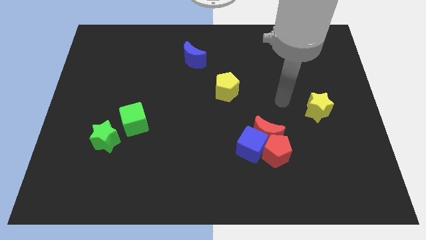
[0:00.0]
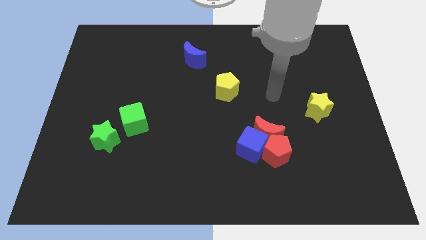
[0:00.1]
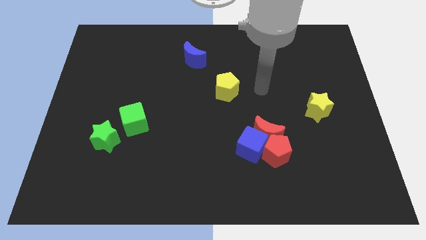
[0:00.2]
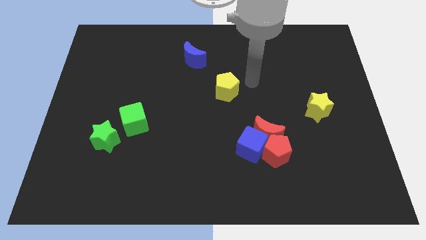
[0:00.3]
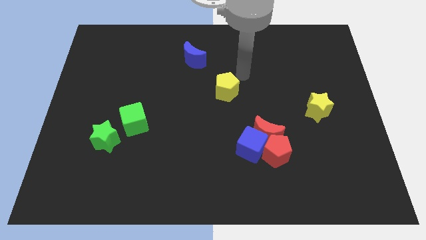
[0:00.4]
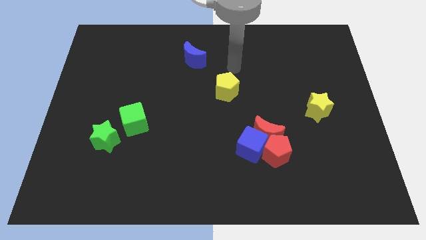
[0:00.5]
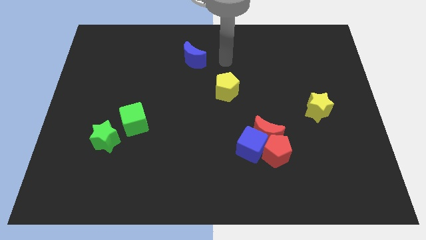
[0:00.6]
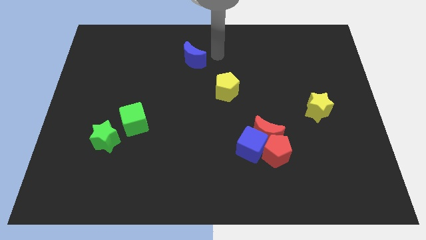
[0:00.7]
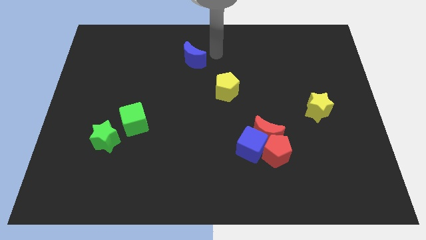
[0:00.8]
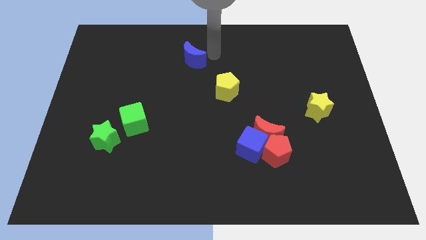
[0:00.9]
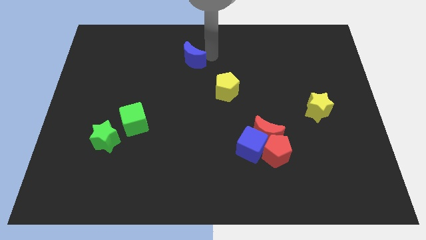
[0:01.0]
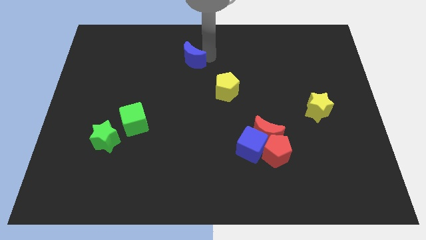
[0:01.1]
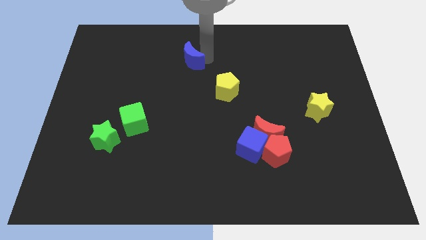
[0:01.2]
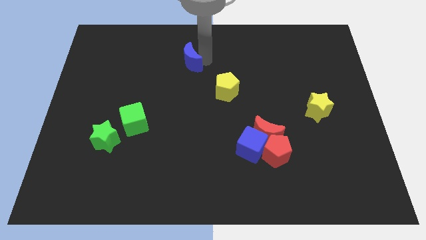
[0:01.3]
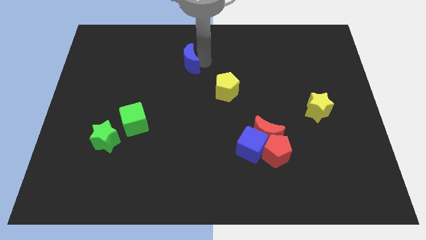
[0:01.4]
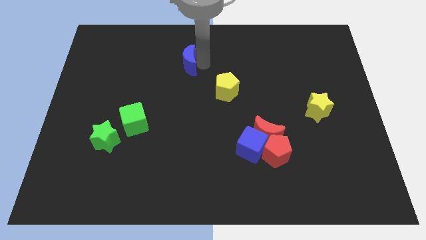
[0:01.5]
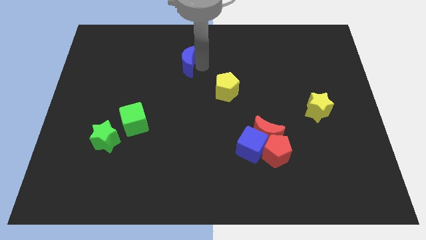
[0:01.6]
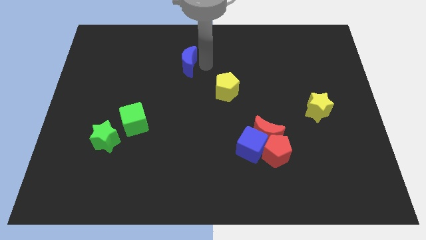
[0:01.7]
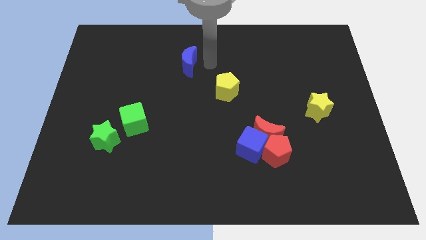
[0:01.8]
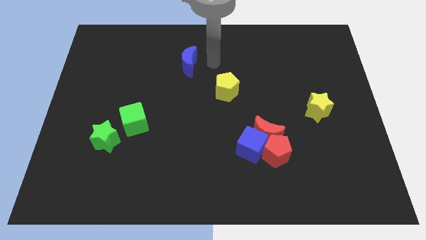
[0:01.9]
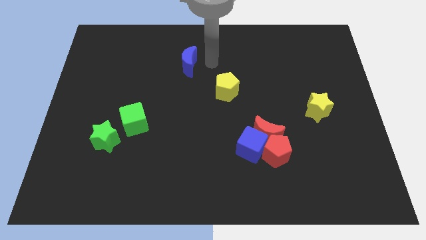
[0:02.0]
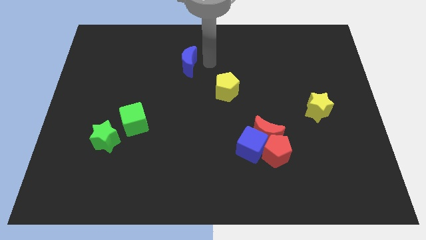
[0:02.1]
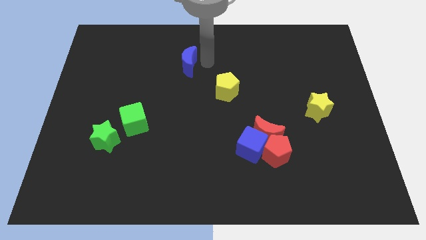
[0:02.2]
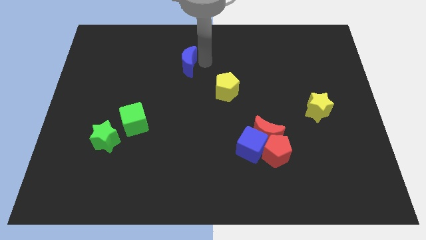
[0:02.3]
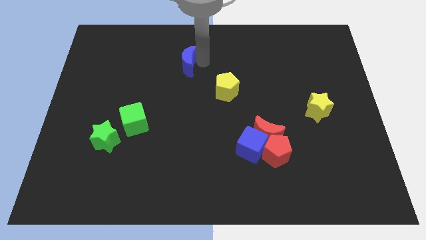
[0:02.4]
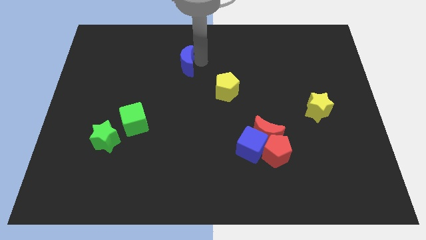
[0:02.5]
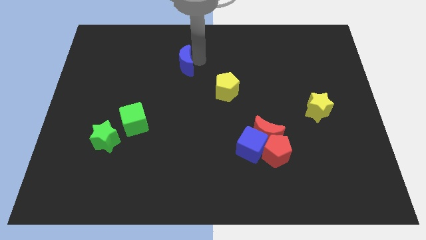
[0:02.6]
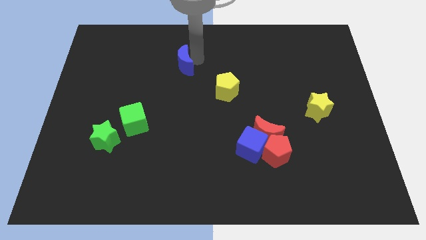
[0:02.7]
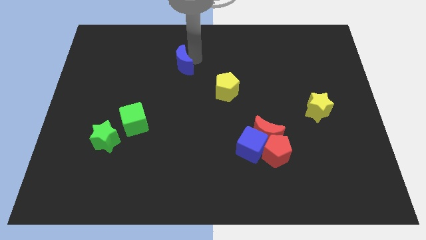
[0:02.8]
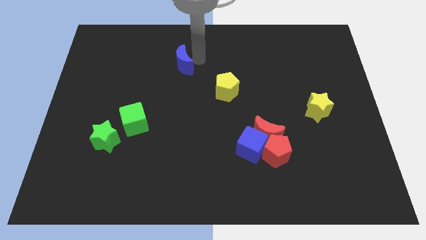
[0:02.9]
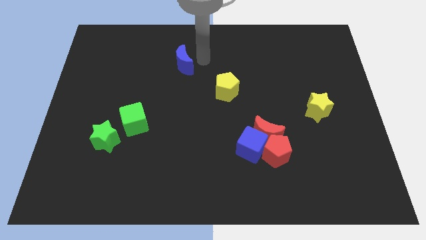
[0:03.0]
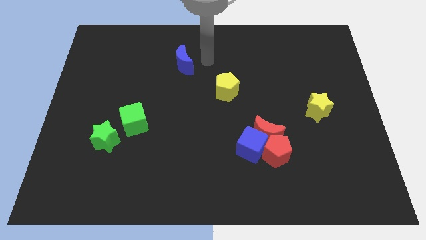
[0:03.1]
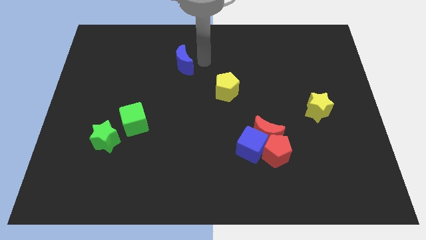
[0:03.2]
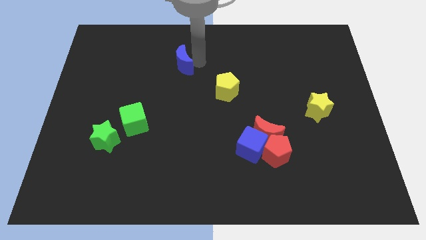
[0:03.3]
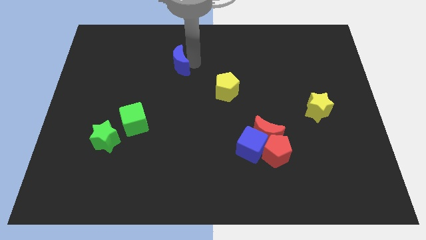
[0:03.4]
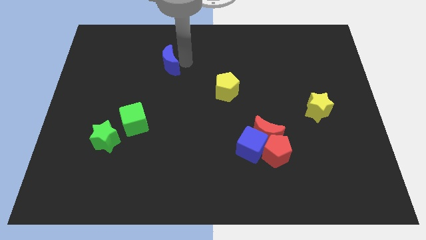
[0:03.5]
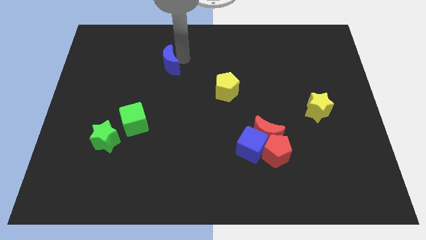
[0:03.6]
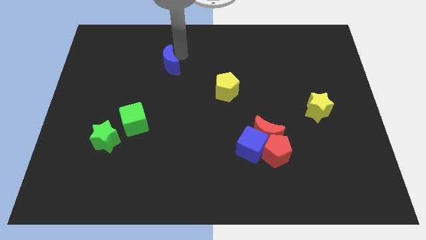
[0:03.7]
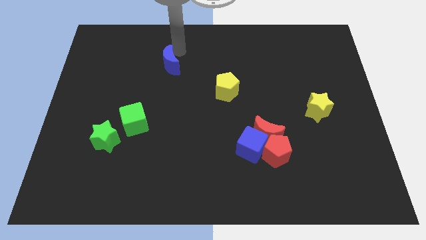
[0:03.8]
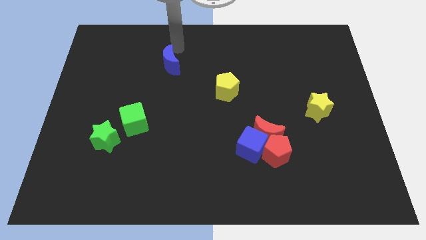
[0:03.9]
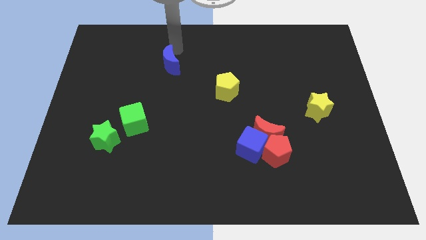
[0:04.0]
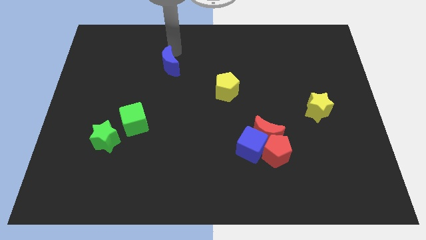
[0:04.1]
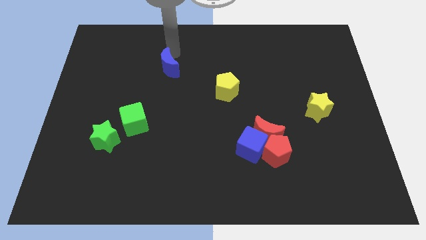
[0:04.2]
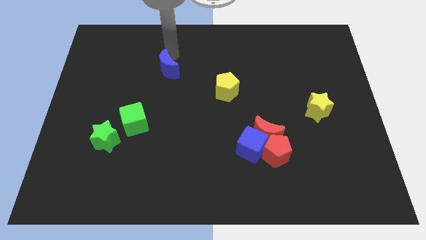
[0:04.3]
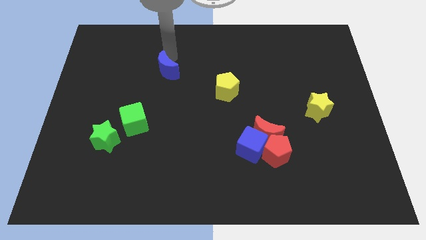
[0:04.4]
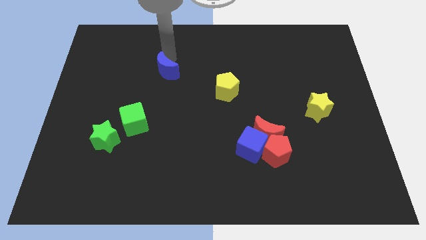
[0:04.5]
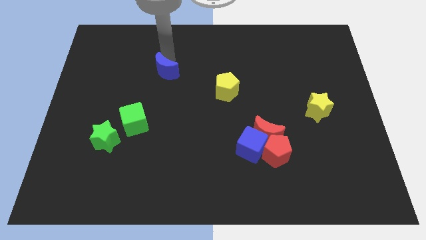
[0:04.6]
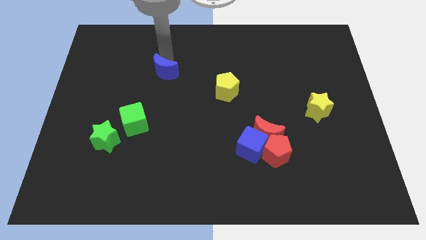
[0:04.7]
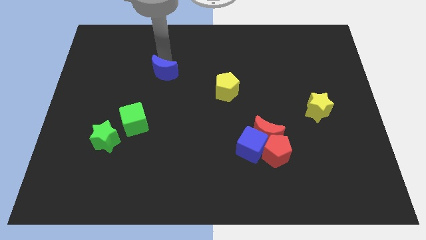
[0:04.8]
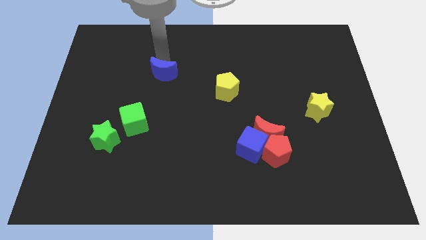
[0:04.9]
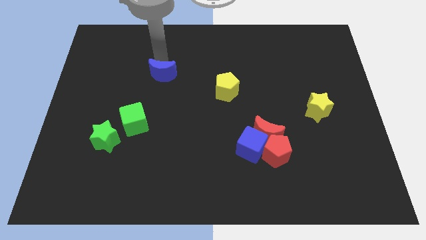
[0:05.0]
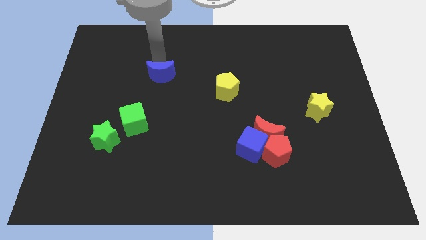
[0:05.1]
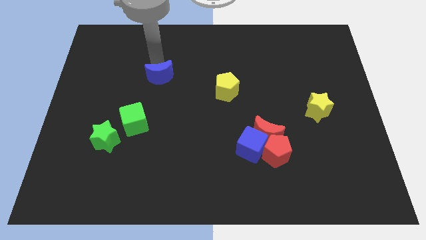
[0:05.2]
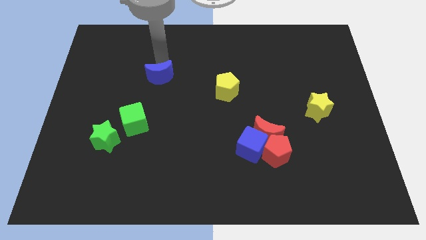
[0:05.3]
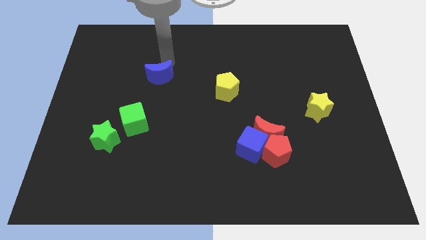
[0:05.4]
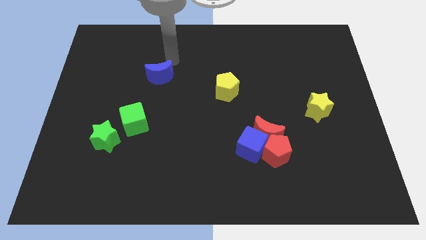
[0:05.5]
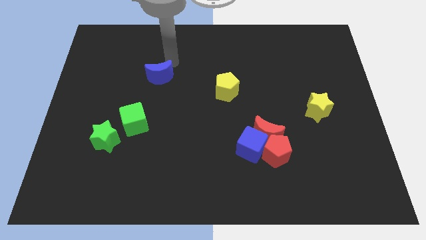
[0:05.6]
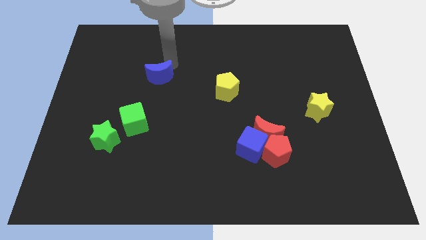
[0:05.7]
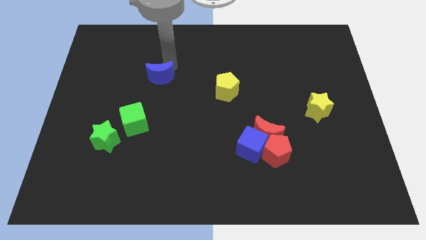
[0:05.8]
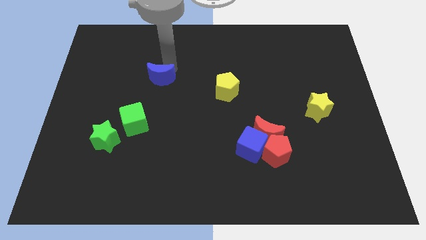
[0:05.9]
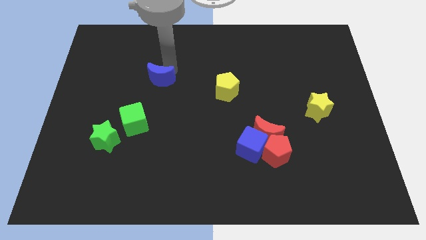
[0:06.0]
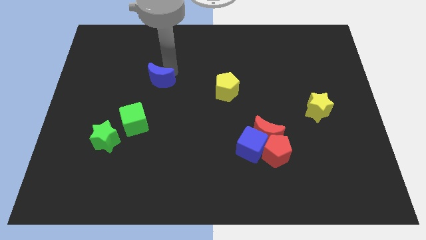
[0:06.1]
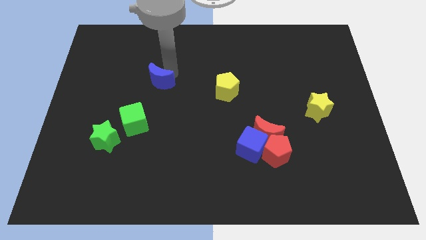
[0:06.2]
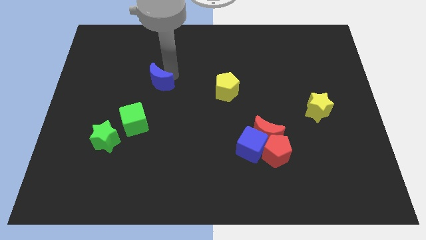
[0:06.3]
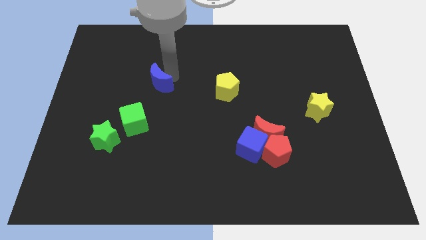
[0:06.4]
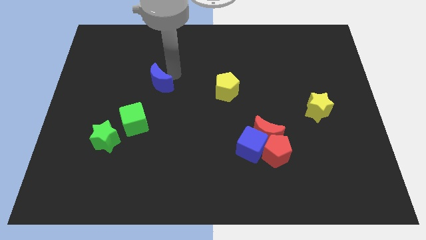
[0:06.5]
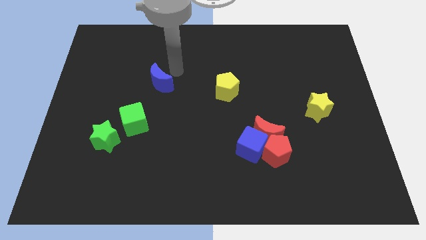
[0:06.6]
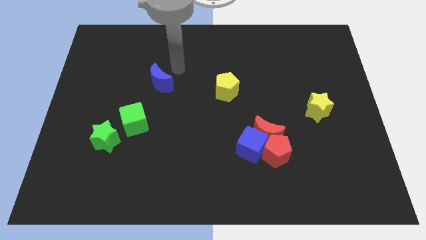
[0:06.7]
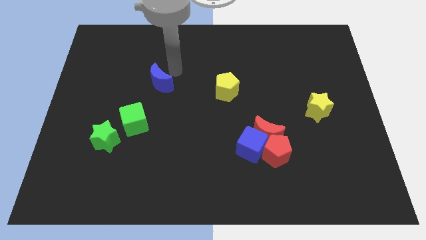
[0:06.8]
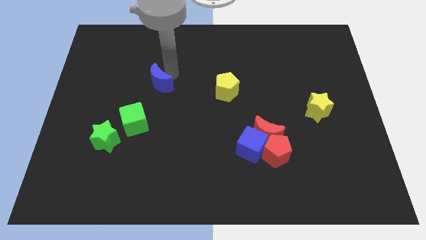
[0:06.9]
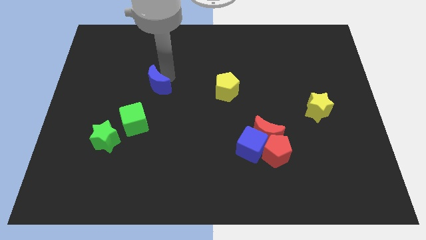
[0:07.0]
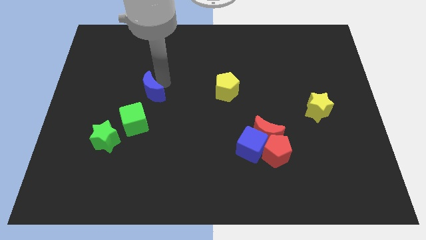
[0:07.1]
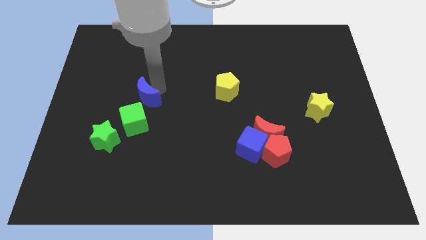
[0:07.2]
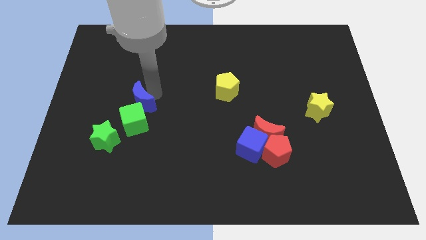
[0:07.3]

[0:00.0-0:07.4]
slide the blue moon to the top left side of the green cube
